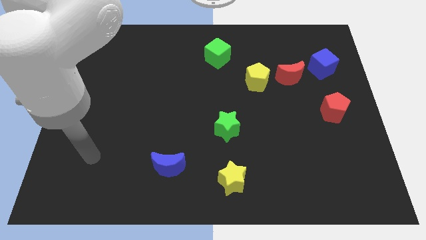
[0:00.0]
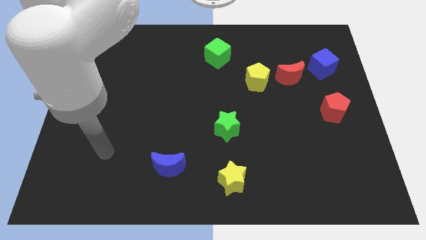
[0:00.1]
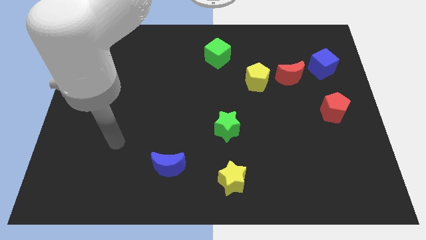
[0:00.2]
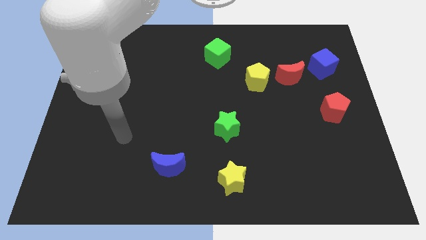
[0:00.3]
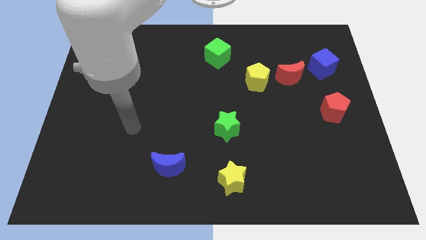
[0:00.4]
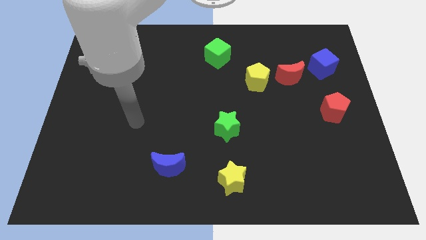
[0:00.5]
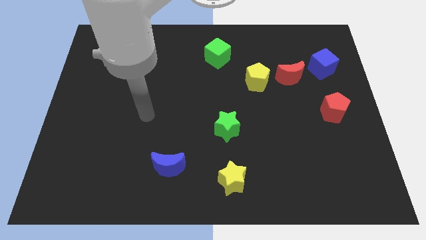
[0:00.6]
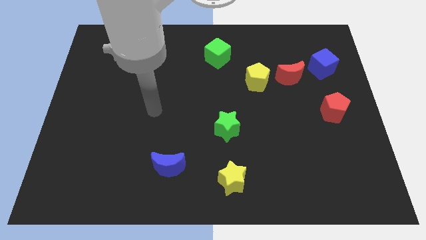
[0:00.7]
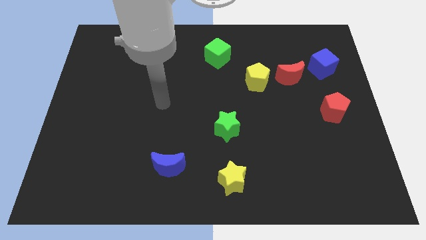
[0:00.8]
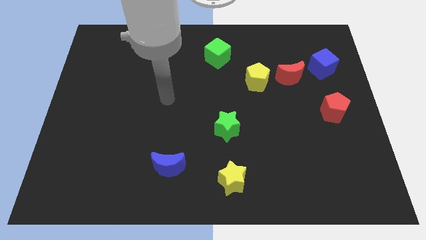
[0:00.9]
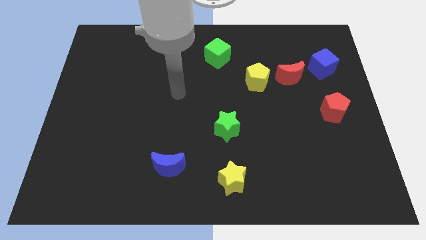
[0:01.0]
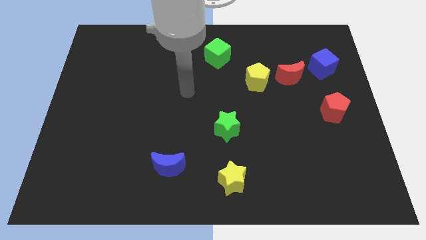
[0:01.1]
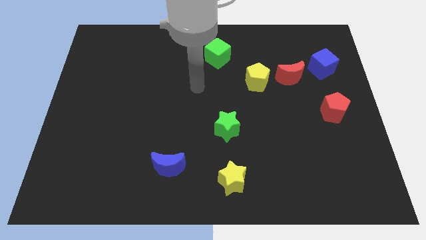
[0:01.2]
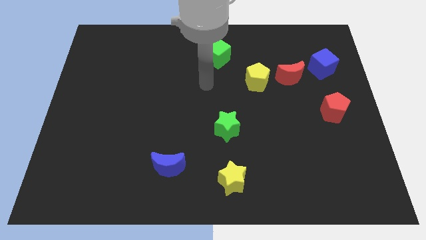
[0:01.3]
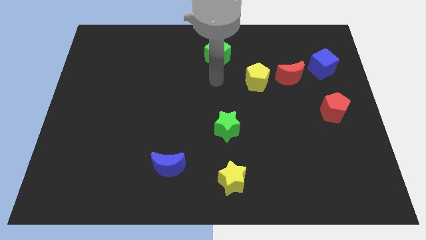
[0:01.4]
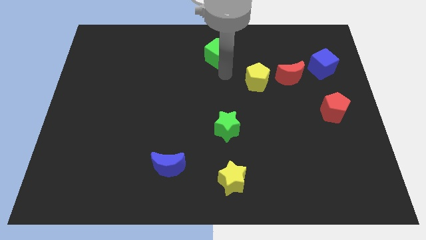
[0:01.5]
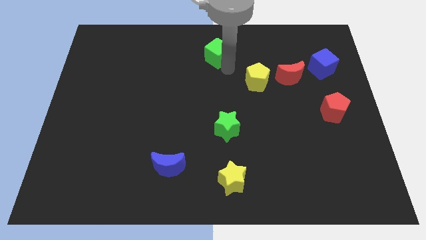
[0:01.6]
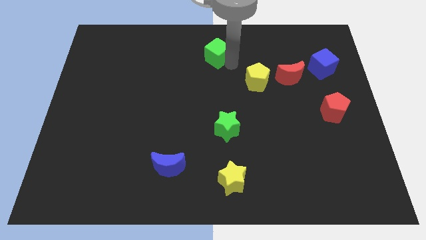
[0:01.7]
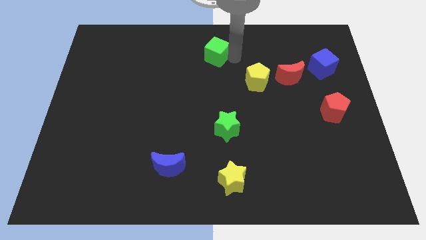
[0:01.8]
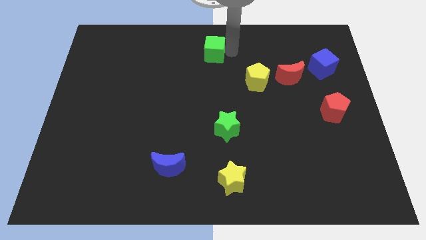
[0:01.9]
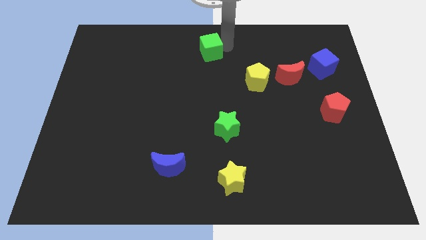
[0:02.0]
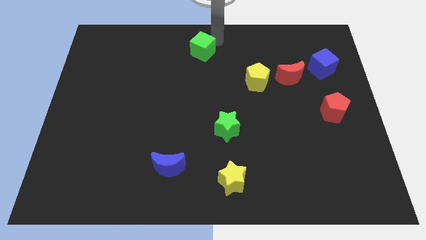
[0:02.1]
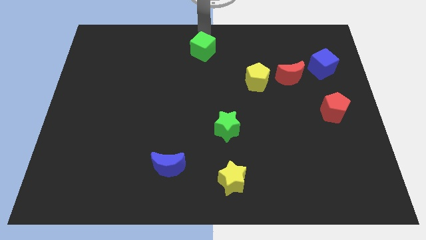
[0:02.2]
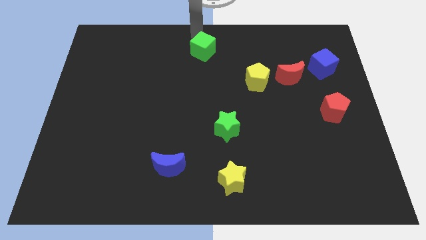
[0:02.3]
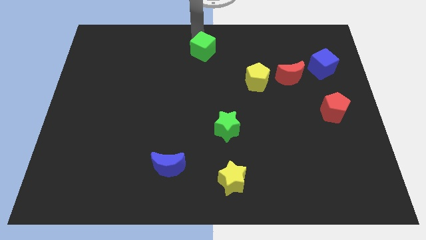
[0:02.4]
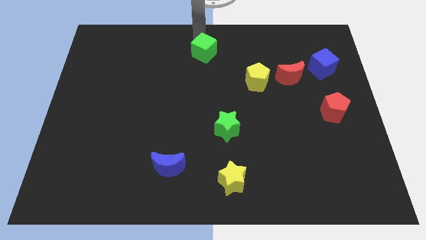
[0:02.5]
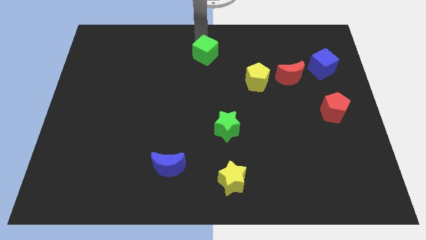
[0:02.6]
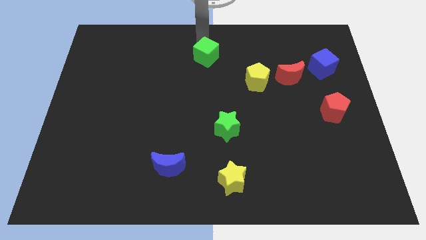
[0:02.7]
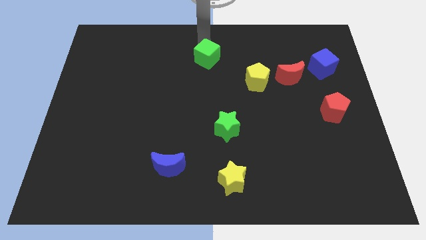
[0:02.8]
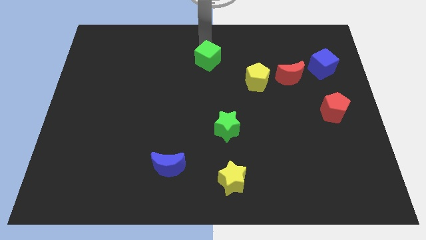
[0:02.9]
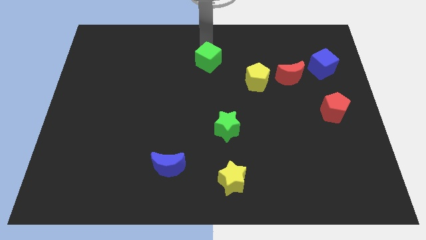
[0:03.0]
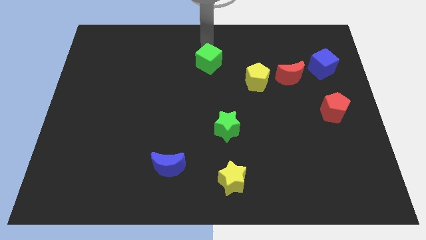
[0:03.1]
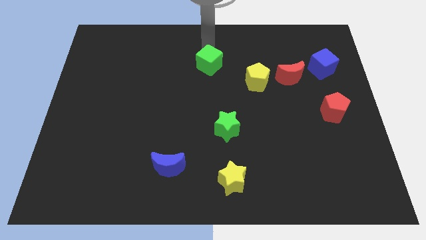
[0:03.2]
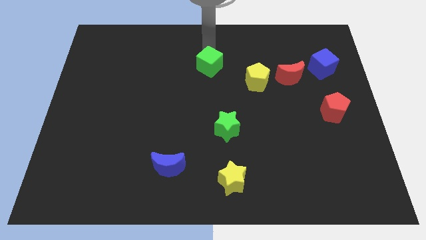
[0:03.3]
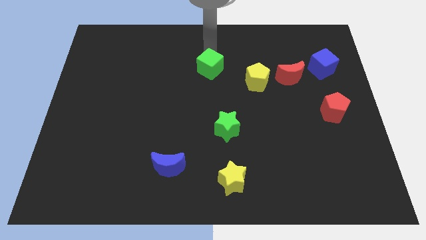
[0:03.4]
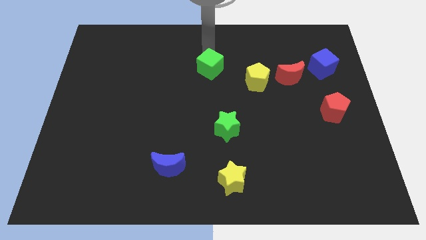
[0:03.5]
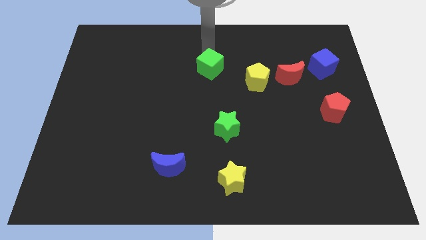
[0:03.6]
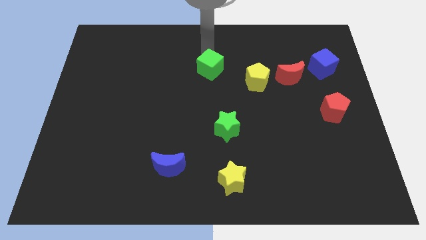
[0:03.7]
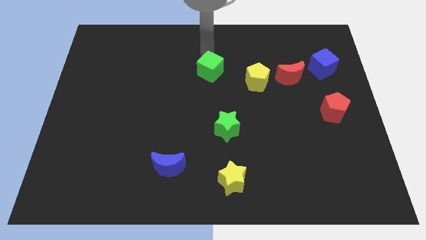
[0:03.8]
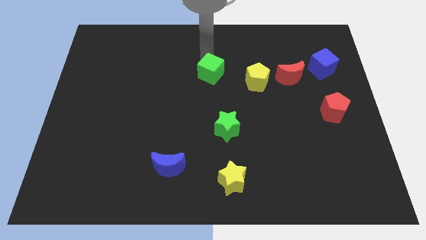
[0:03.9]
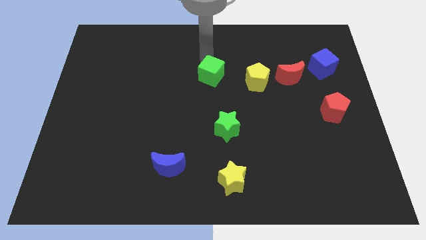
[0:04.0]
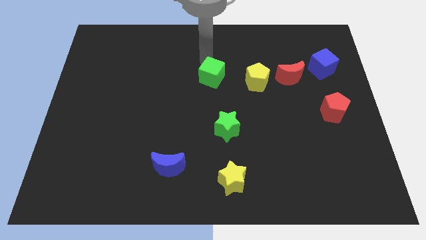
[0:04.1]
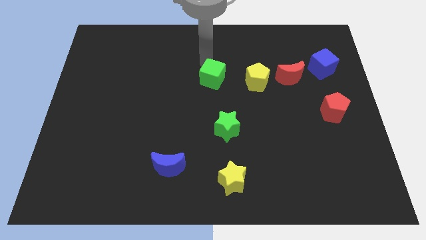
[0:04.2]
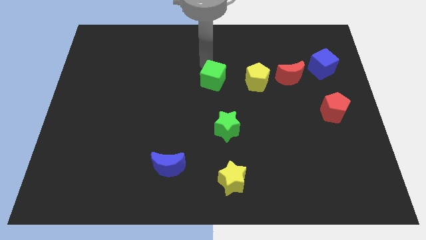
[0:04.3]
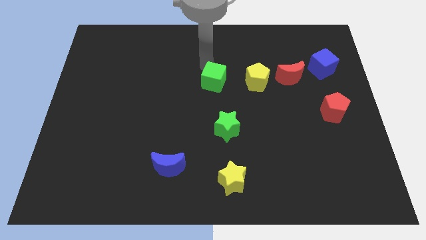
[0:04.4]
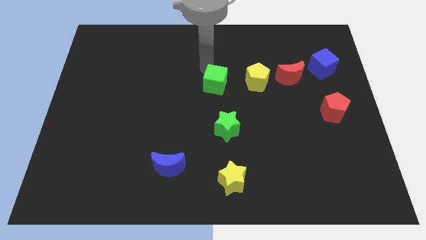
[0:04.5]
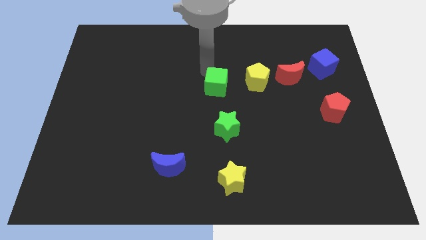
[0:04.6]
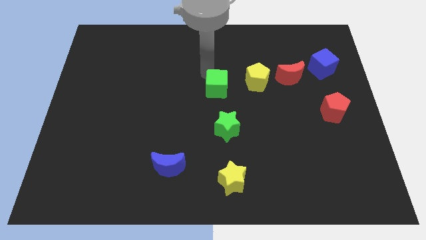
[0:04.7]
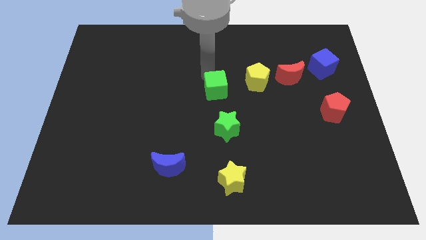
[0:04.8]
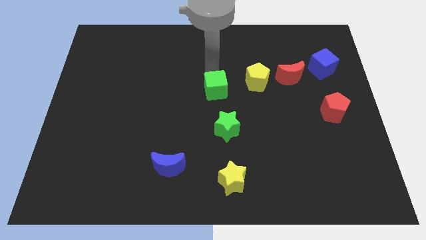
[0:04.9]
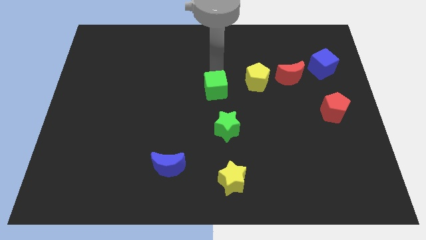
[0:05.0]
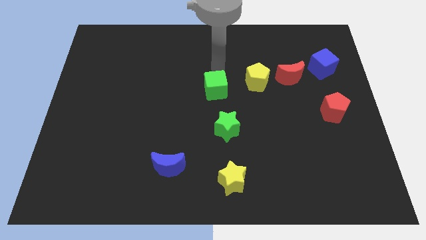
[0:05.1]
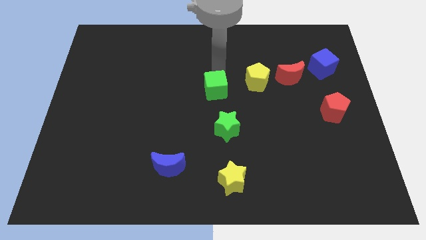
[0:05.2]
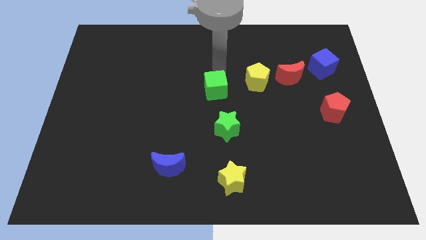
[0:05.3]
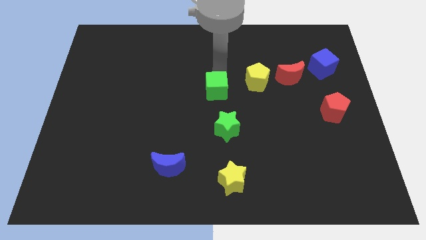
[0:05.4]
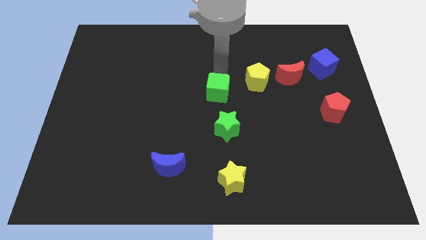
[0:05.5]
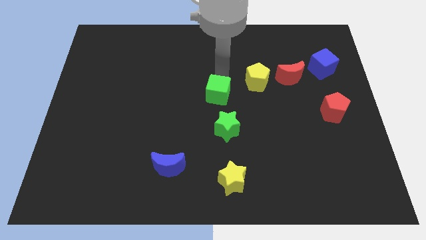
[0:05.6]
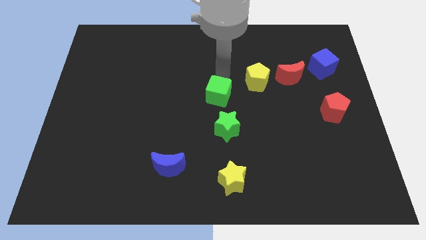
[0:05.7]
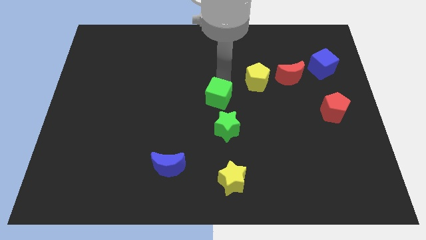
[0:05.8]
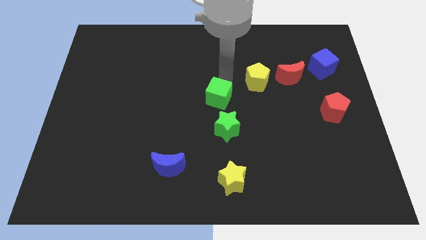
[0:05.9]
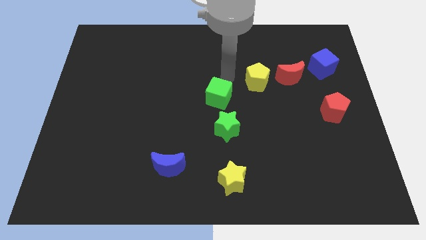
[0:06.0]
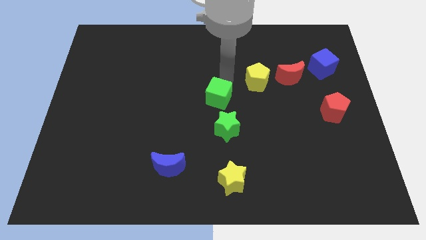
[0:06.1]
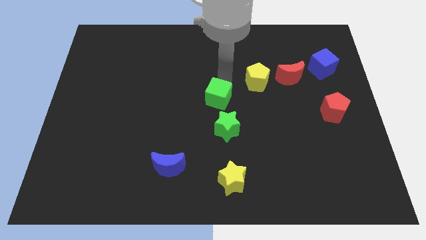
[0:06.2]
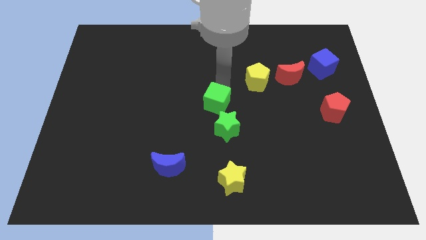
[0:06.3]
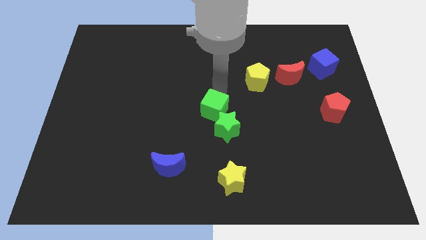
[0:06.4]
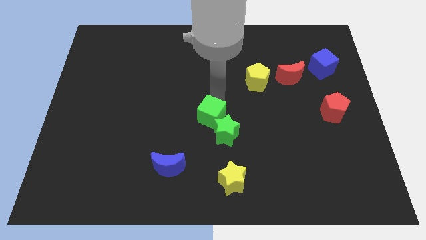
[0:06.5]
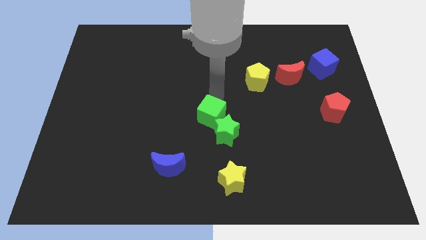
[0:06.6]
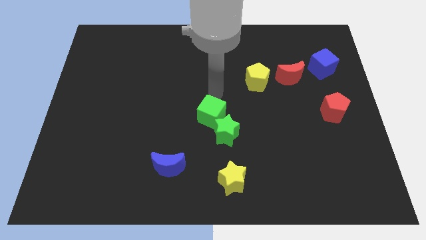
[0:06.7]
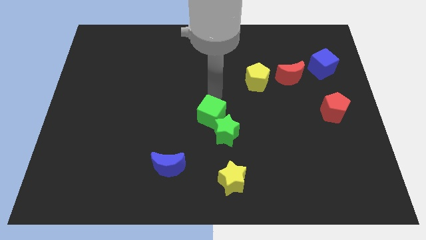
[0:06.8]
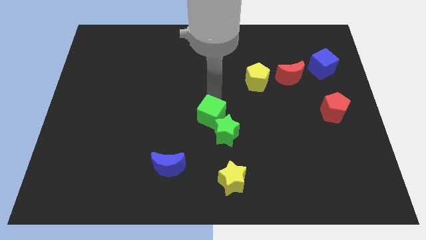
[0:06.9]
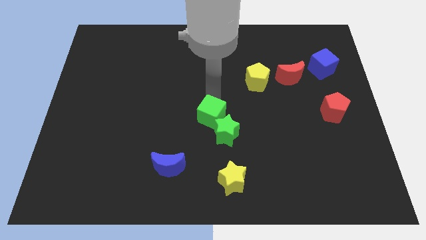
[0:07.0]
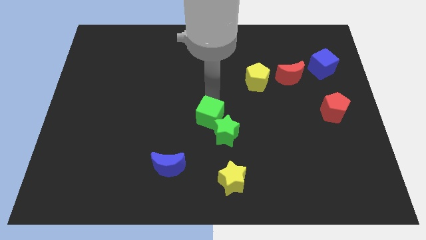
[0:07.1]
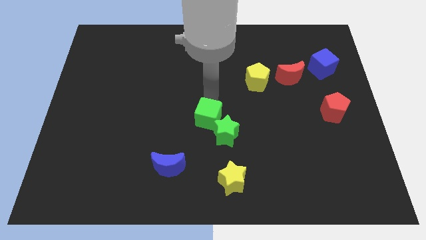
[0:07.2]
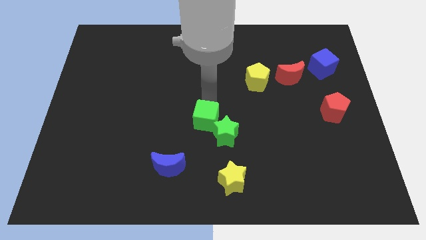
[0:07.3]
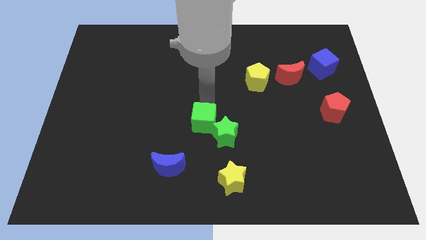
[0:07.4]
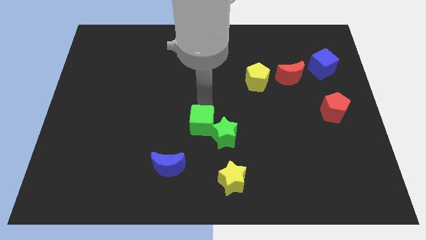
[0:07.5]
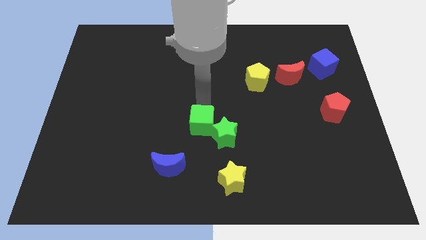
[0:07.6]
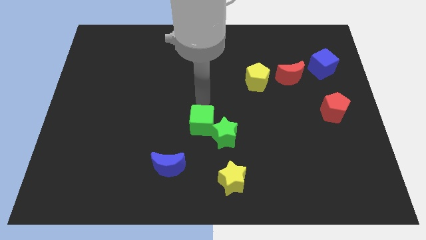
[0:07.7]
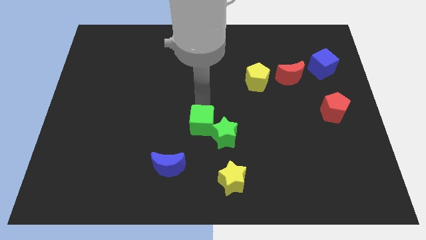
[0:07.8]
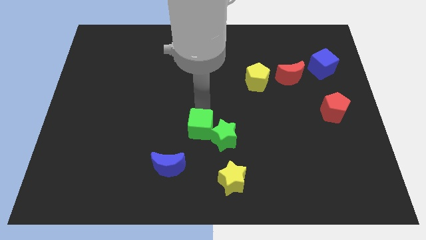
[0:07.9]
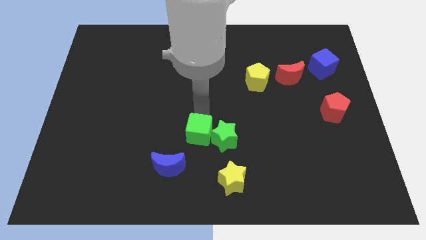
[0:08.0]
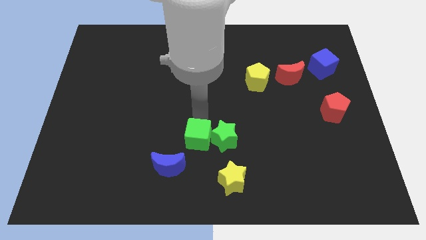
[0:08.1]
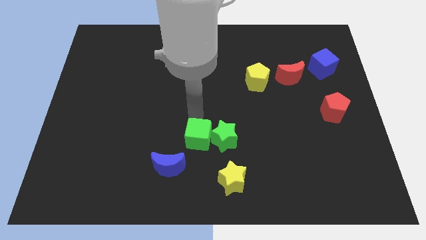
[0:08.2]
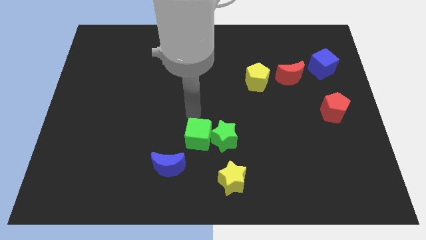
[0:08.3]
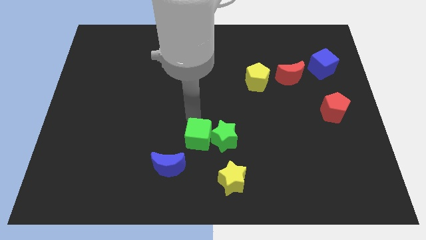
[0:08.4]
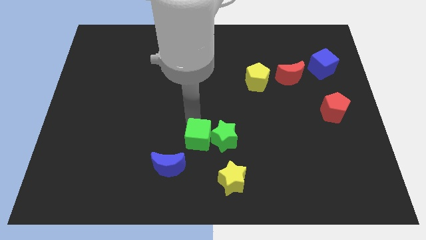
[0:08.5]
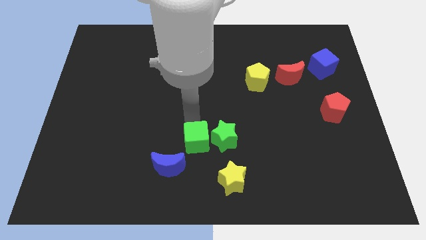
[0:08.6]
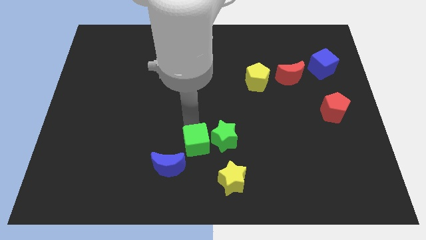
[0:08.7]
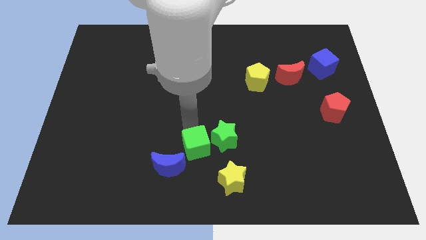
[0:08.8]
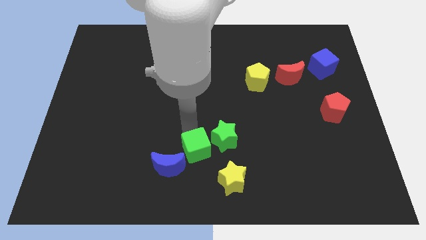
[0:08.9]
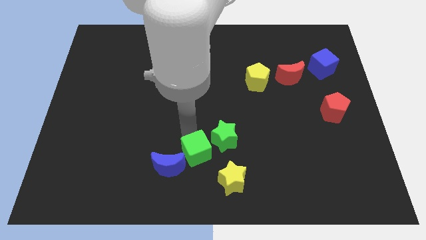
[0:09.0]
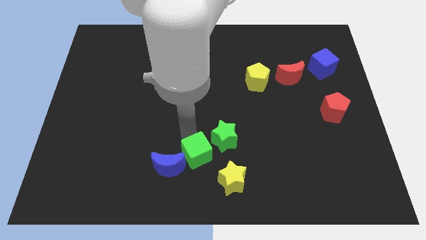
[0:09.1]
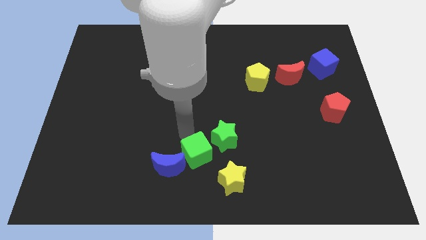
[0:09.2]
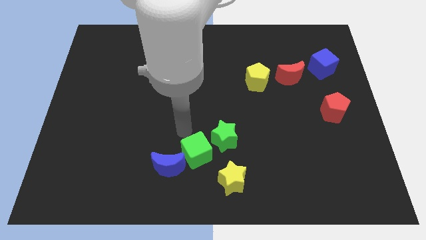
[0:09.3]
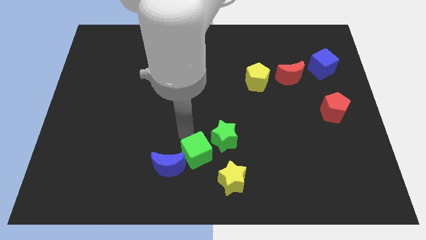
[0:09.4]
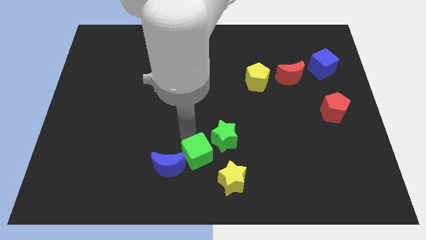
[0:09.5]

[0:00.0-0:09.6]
move the green cube to the bottom side
